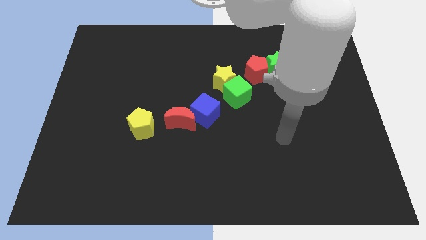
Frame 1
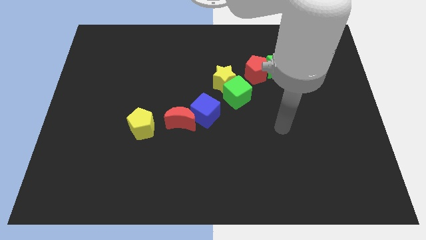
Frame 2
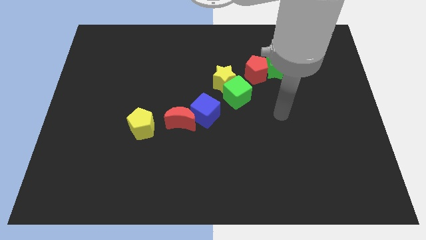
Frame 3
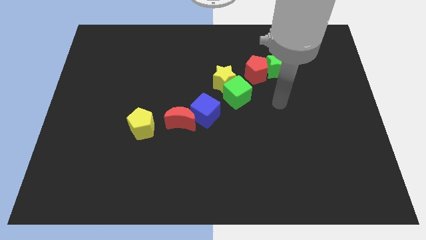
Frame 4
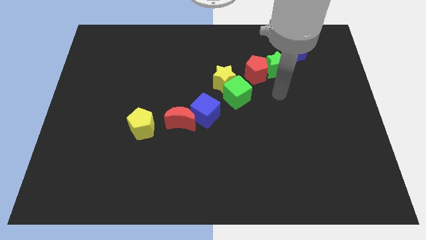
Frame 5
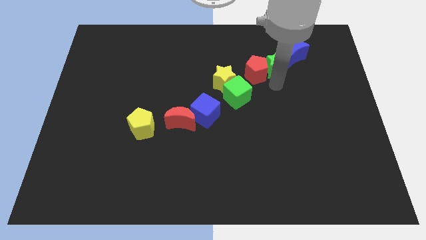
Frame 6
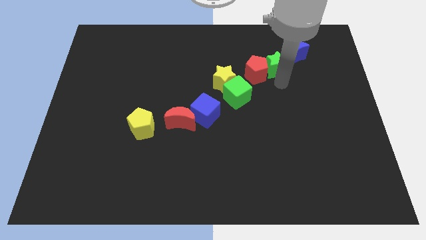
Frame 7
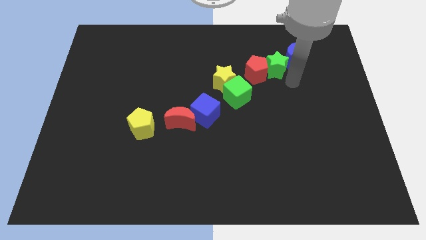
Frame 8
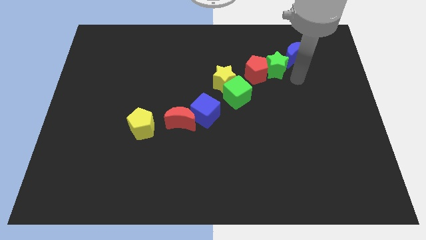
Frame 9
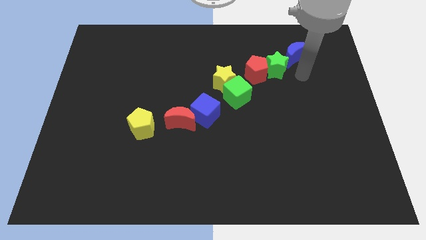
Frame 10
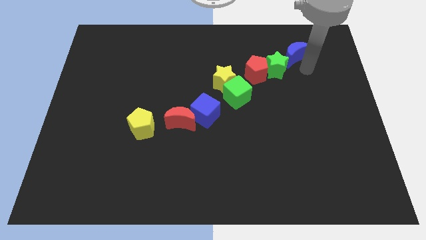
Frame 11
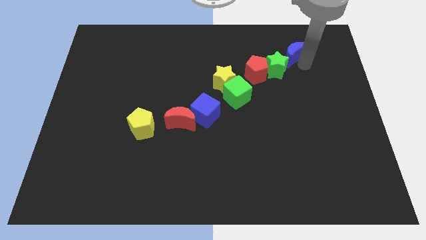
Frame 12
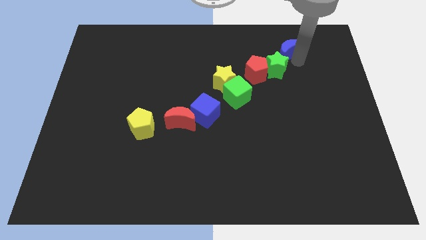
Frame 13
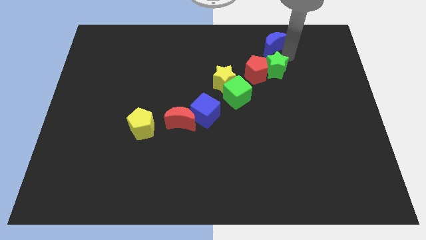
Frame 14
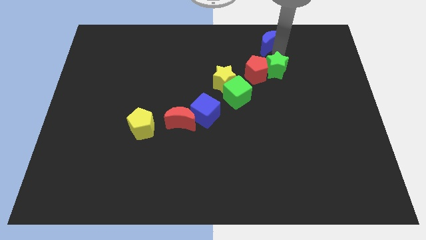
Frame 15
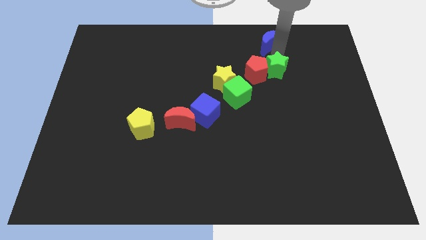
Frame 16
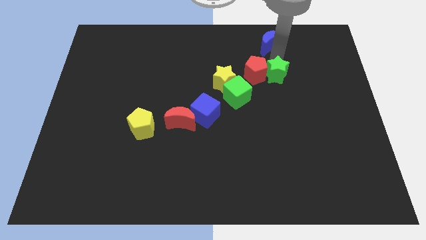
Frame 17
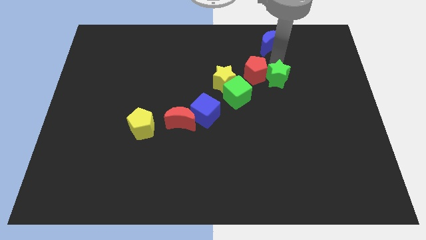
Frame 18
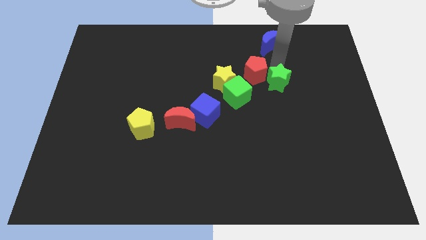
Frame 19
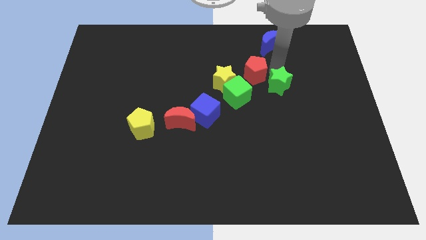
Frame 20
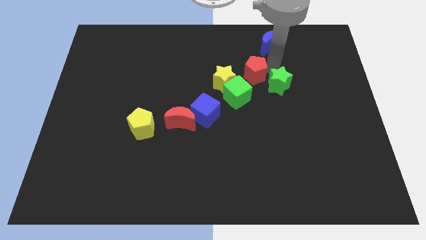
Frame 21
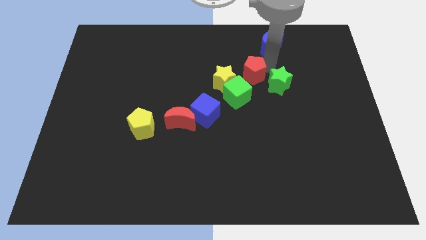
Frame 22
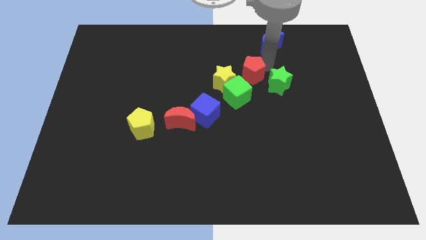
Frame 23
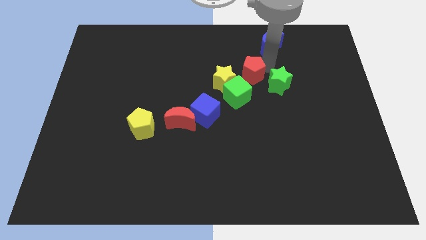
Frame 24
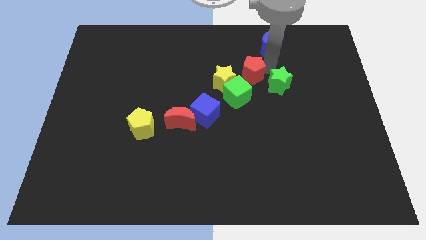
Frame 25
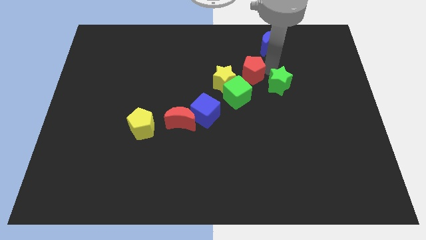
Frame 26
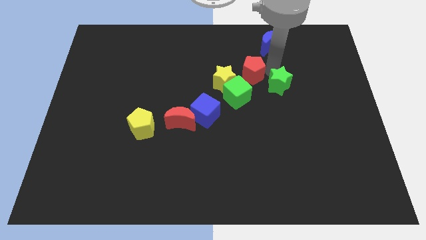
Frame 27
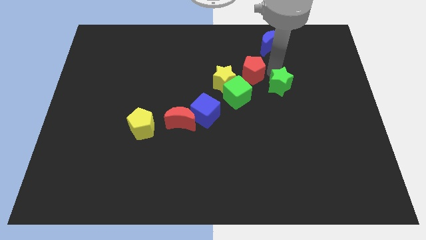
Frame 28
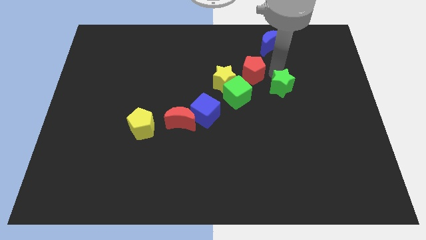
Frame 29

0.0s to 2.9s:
pull the green star apart from the red pentagon and blue moon

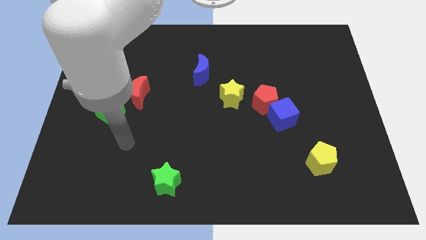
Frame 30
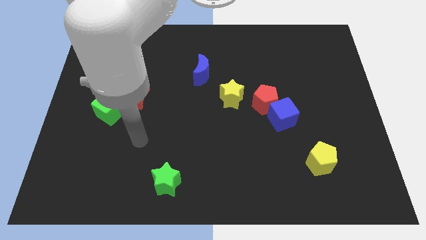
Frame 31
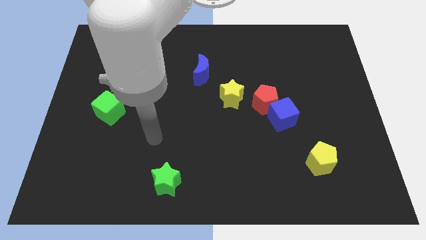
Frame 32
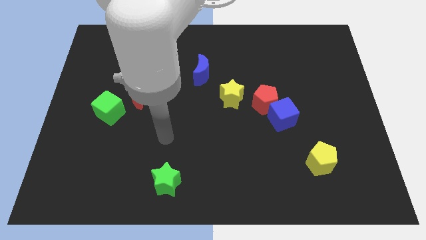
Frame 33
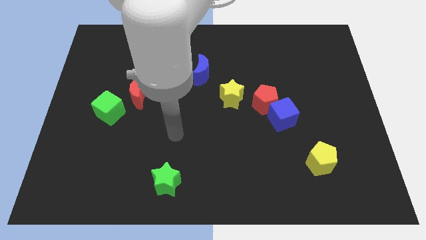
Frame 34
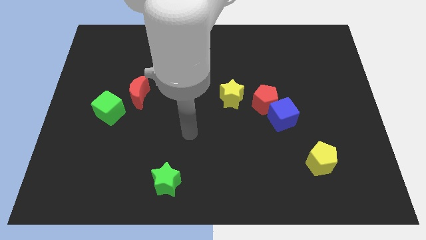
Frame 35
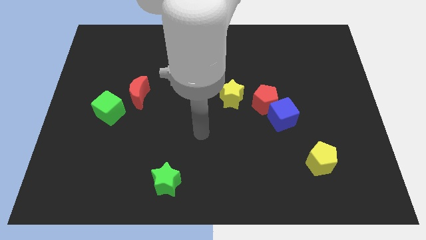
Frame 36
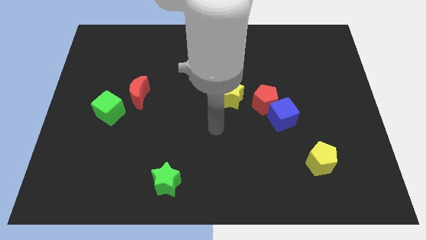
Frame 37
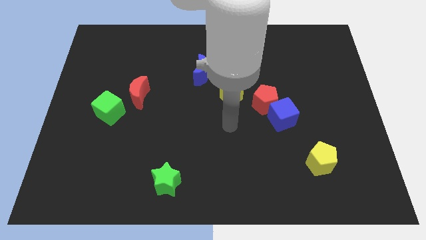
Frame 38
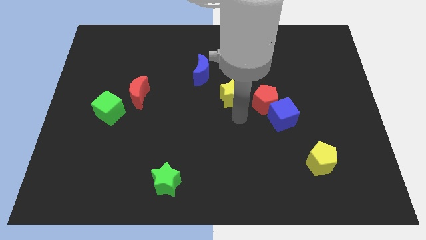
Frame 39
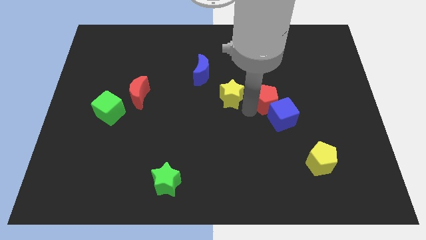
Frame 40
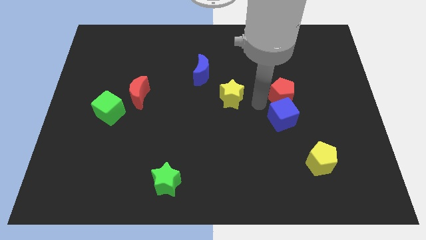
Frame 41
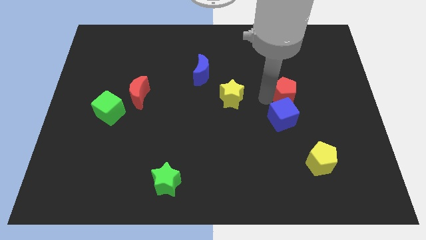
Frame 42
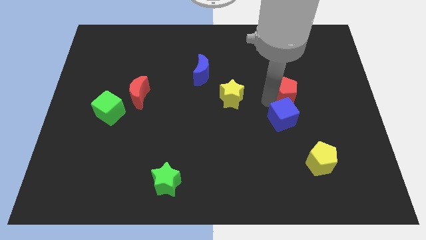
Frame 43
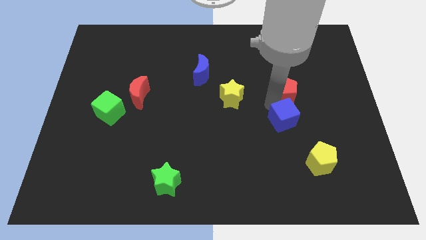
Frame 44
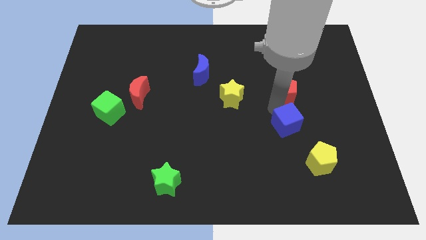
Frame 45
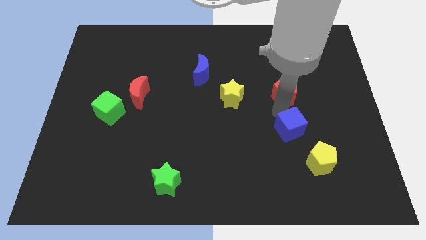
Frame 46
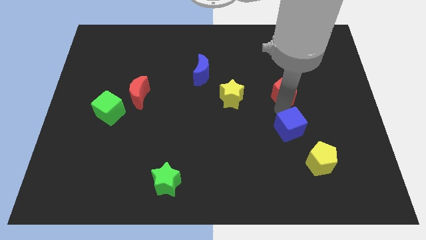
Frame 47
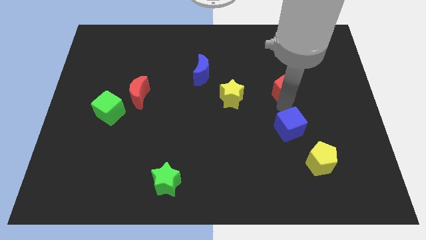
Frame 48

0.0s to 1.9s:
separate the blue cube from the red pentagon

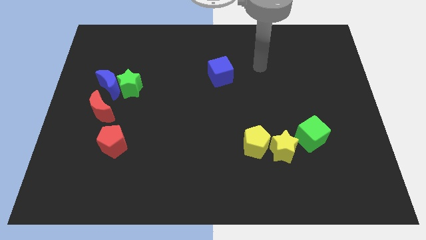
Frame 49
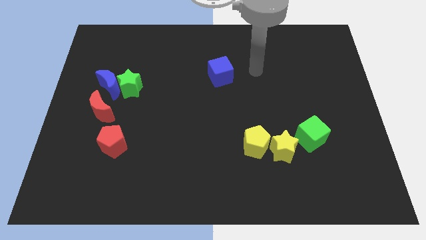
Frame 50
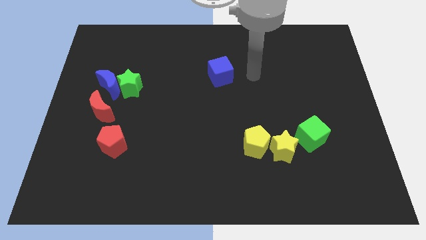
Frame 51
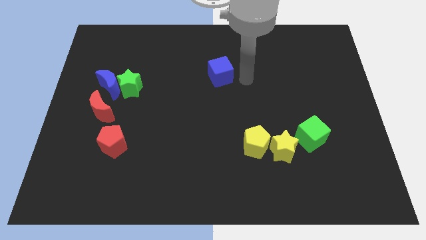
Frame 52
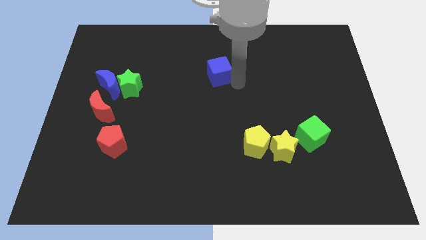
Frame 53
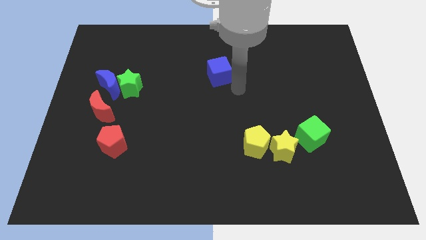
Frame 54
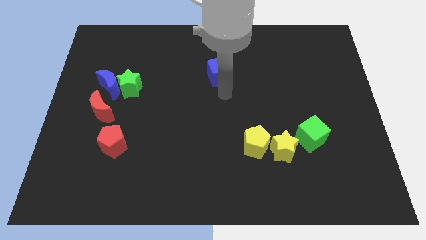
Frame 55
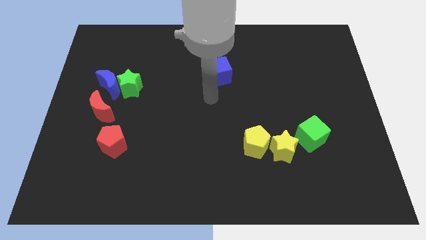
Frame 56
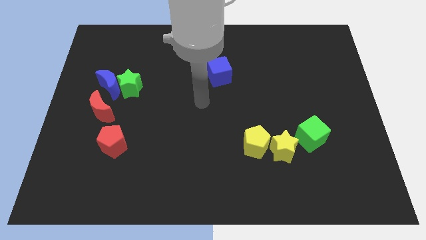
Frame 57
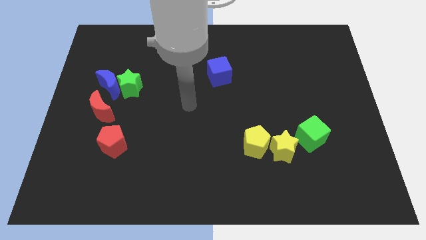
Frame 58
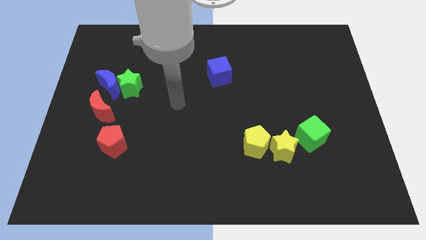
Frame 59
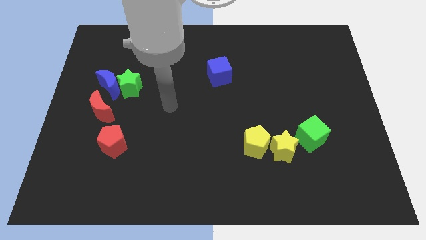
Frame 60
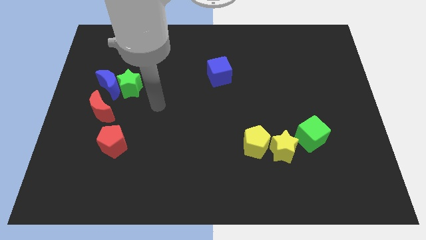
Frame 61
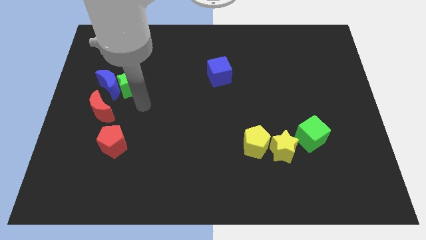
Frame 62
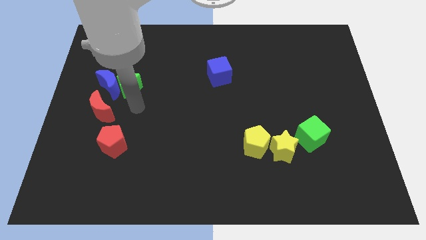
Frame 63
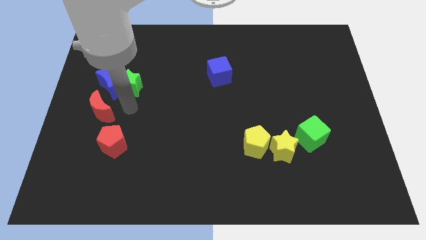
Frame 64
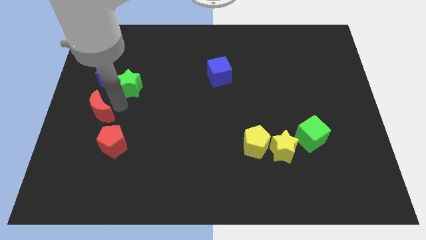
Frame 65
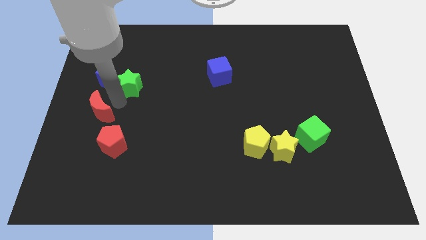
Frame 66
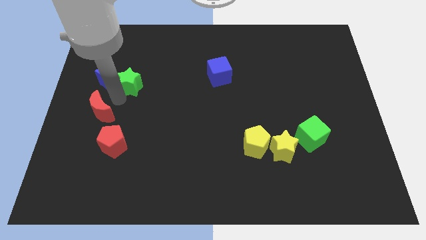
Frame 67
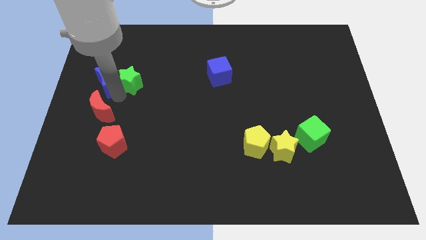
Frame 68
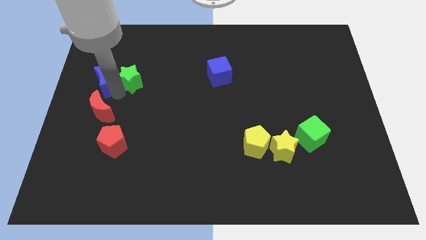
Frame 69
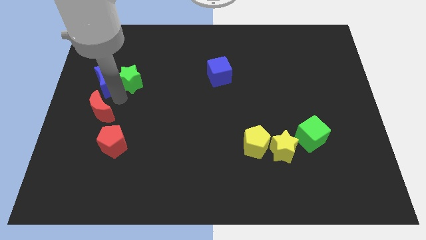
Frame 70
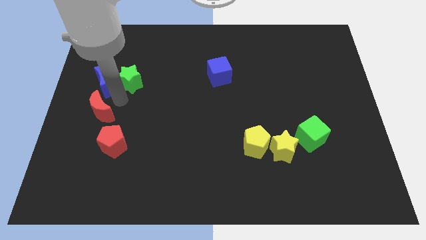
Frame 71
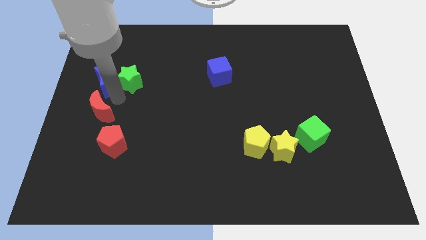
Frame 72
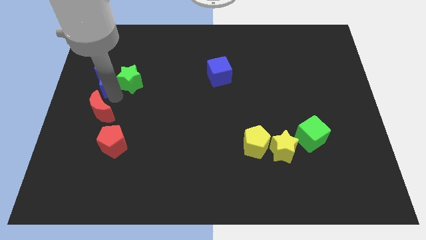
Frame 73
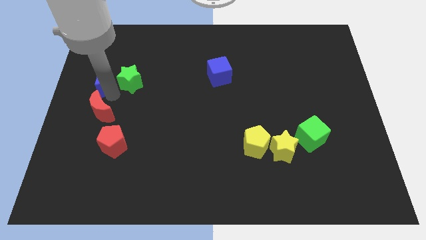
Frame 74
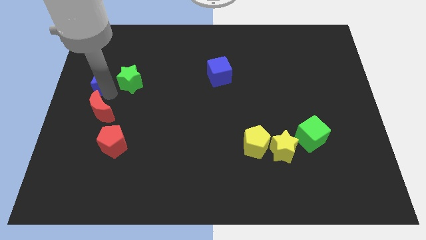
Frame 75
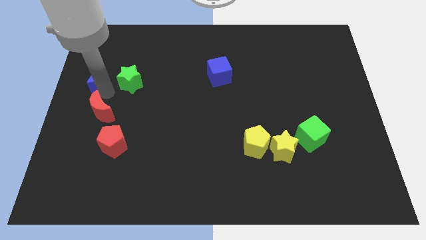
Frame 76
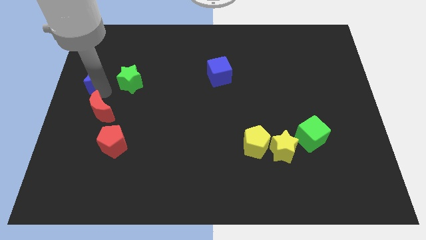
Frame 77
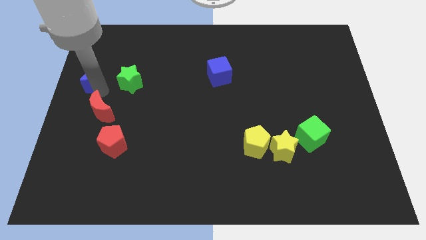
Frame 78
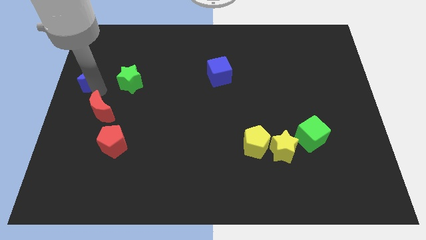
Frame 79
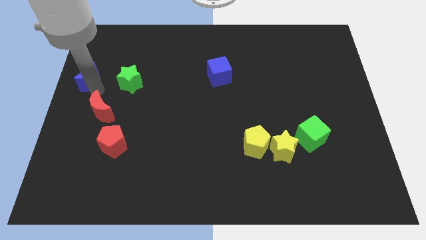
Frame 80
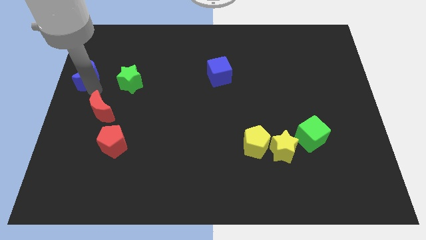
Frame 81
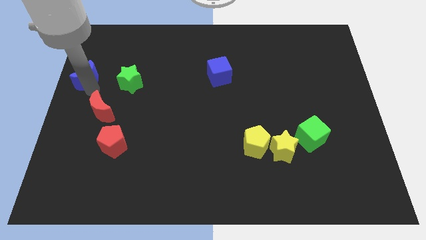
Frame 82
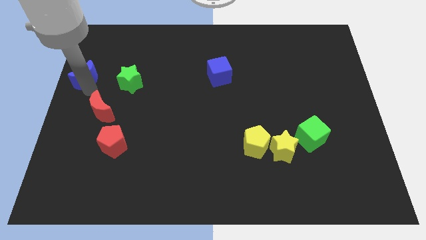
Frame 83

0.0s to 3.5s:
pull the blue moon apart from the green star and red moon

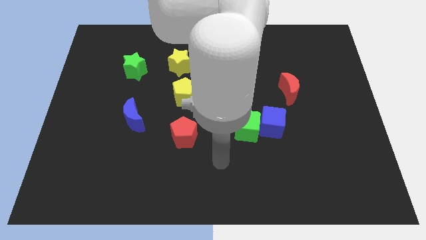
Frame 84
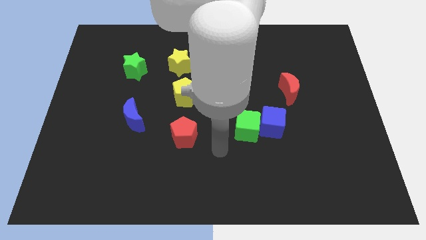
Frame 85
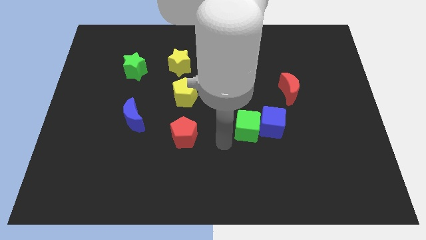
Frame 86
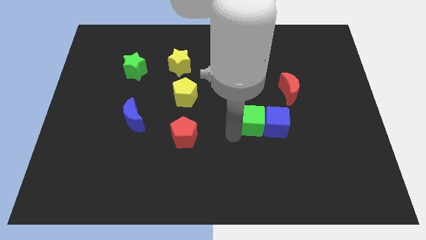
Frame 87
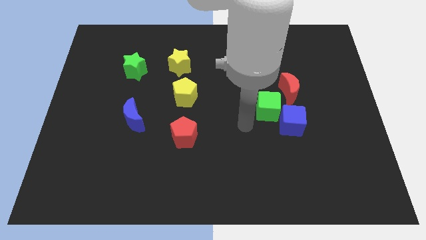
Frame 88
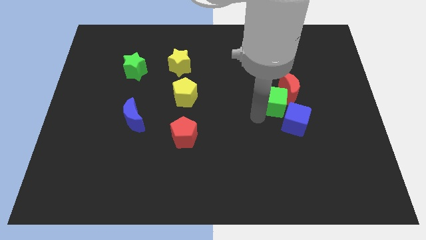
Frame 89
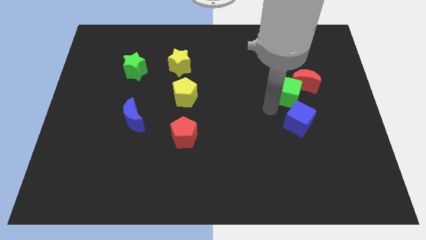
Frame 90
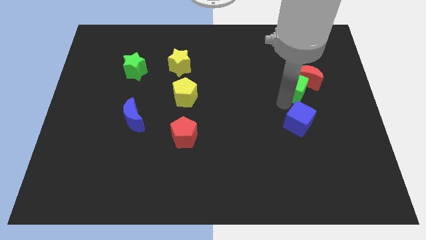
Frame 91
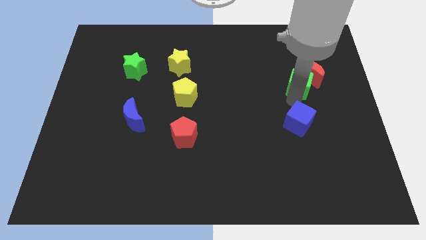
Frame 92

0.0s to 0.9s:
pull the blue cube apart from the green cube

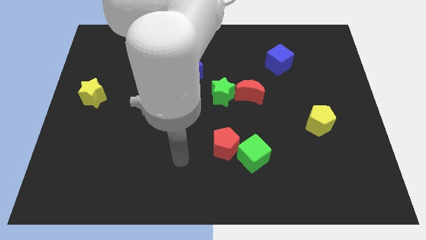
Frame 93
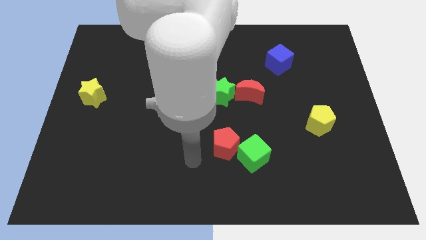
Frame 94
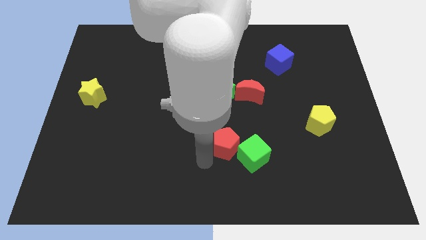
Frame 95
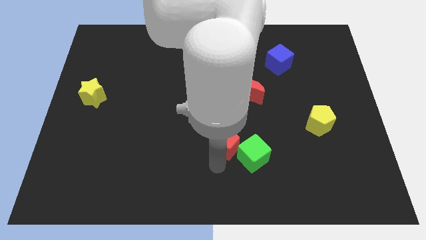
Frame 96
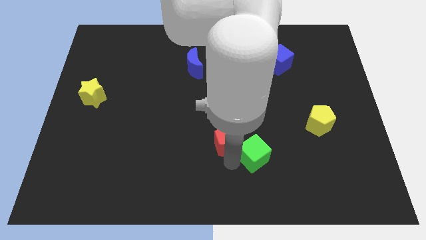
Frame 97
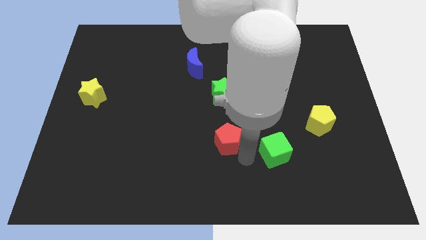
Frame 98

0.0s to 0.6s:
pull the red pentagon apart from the green cube
